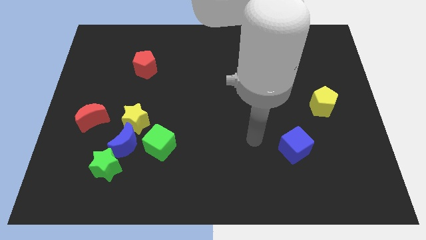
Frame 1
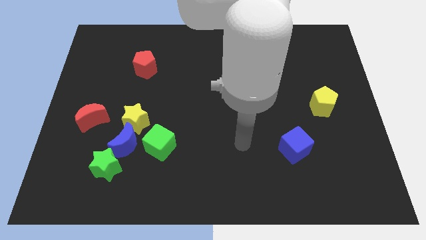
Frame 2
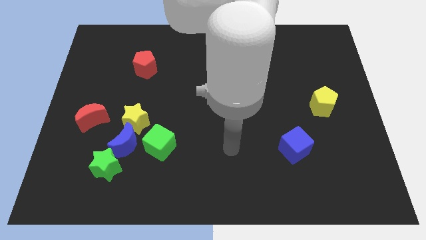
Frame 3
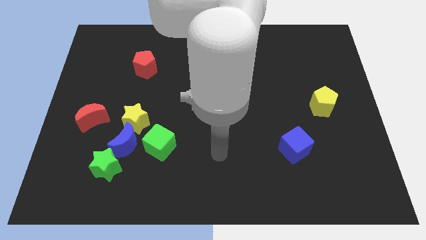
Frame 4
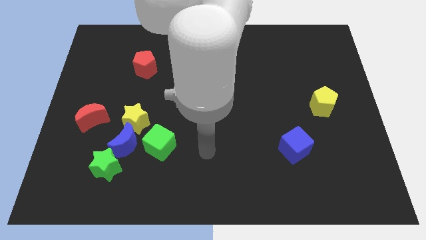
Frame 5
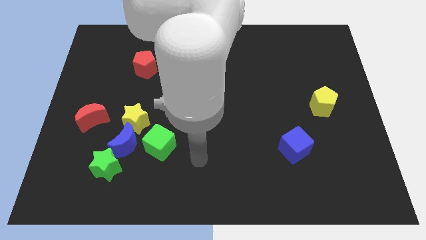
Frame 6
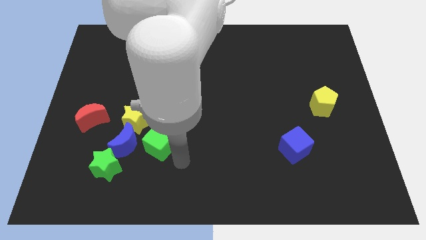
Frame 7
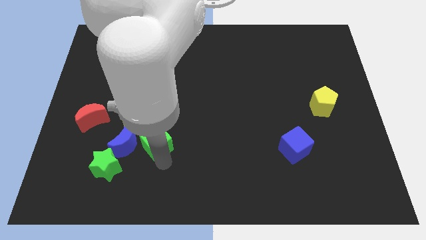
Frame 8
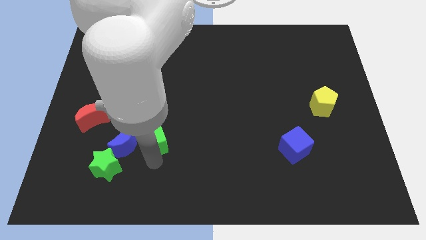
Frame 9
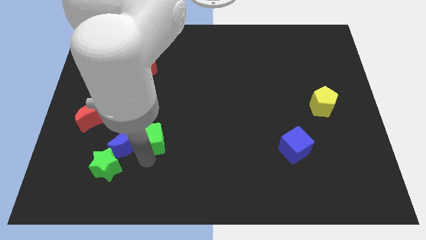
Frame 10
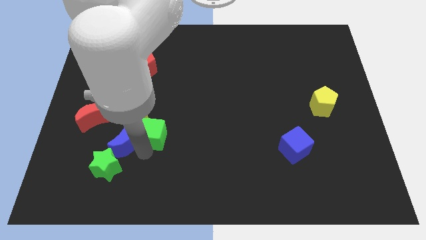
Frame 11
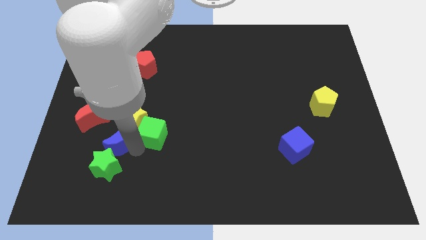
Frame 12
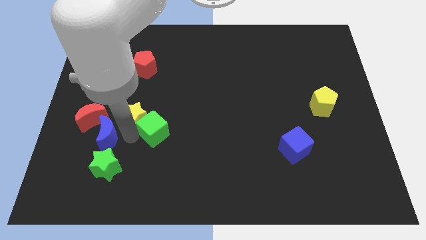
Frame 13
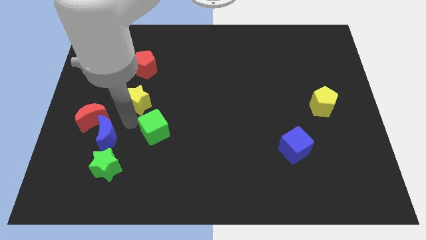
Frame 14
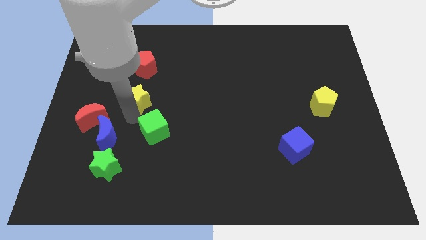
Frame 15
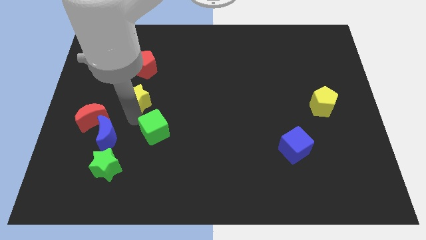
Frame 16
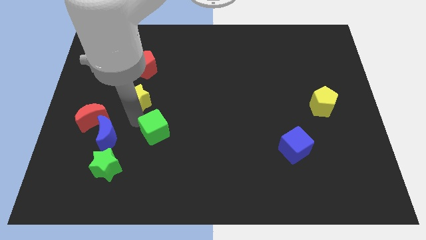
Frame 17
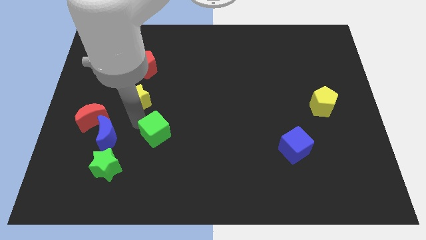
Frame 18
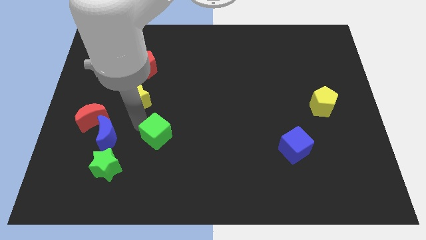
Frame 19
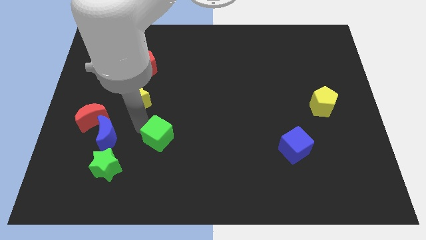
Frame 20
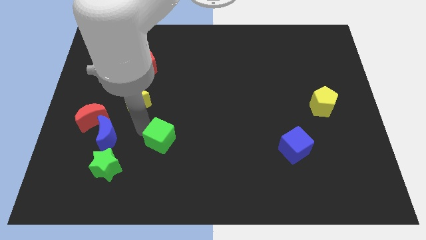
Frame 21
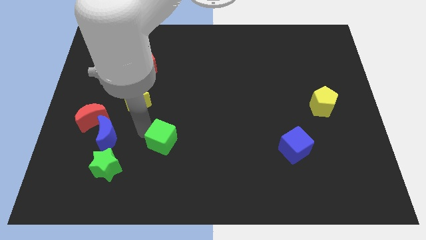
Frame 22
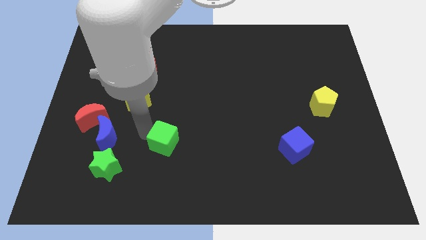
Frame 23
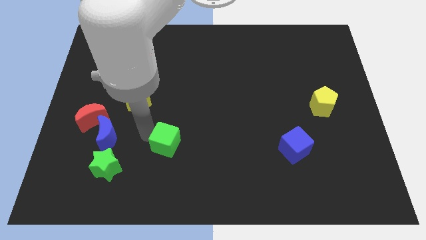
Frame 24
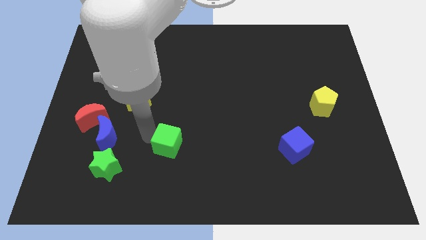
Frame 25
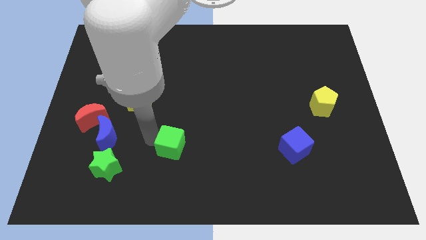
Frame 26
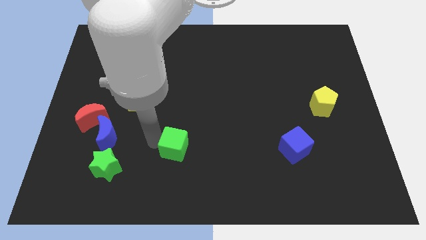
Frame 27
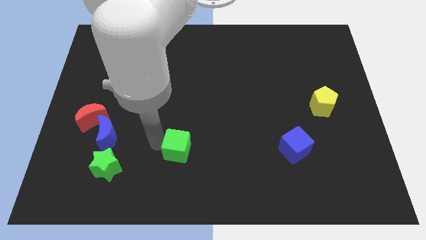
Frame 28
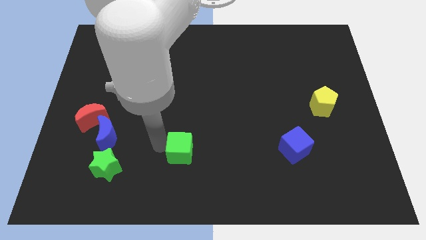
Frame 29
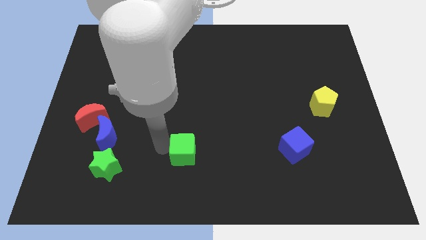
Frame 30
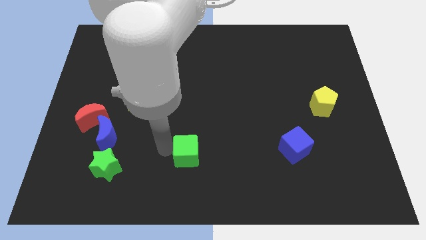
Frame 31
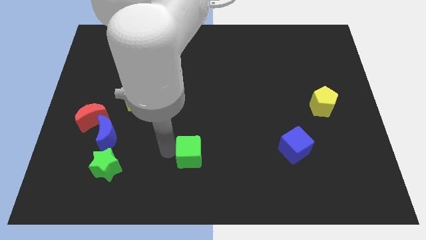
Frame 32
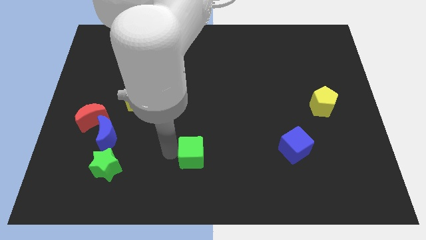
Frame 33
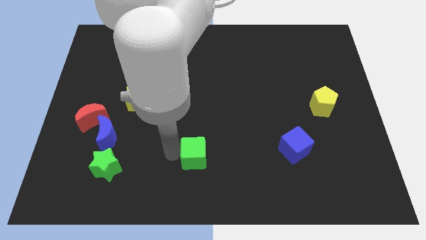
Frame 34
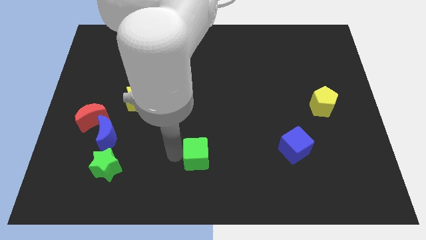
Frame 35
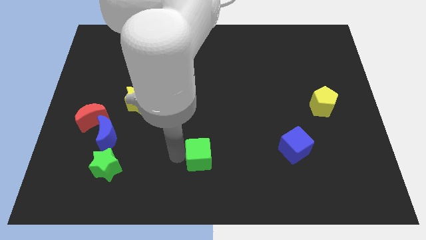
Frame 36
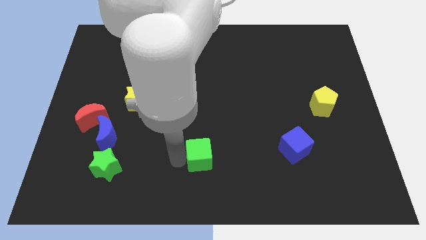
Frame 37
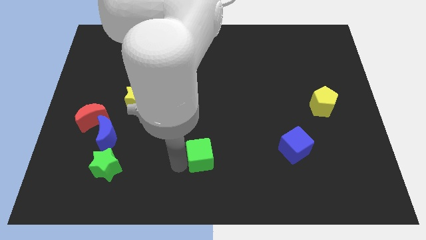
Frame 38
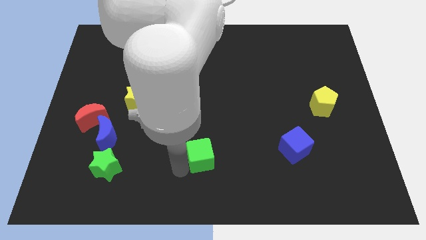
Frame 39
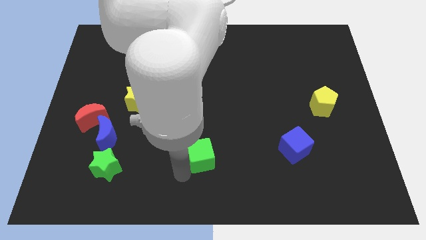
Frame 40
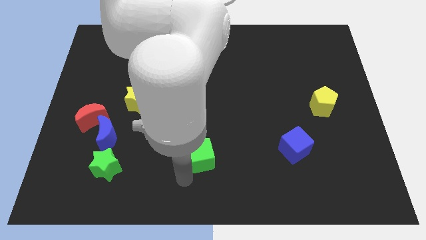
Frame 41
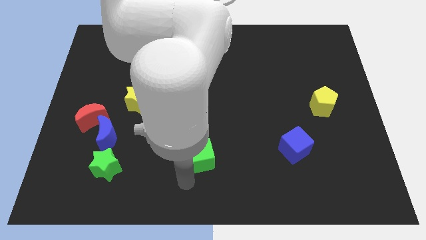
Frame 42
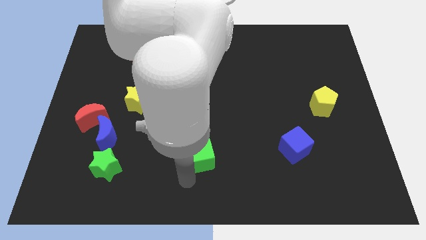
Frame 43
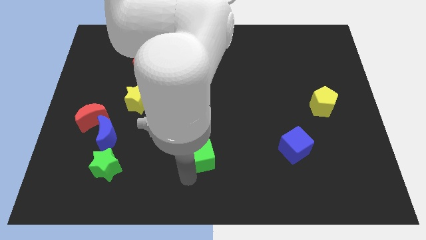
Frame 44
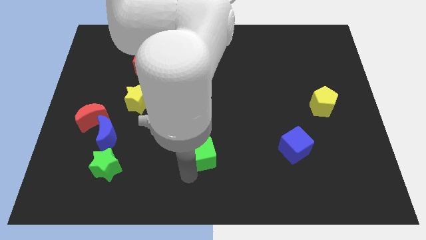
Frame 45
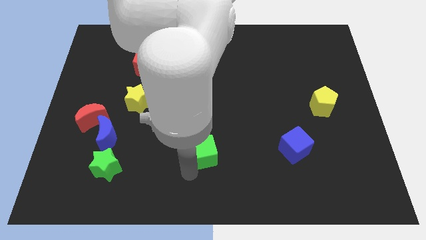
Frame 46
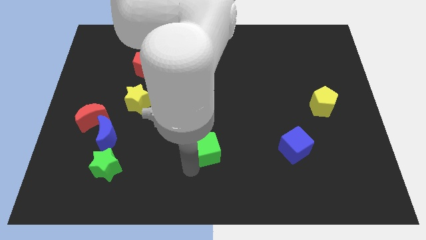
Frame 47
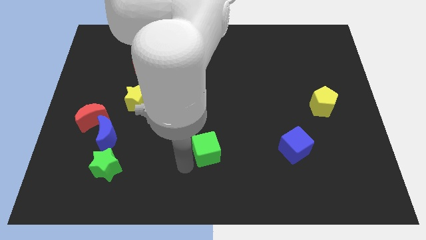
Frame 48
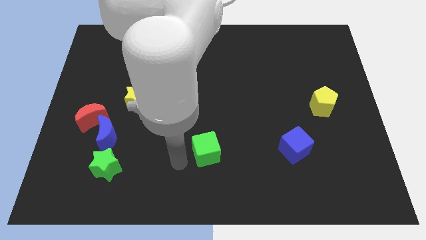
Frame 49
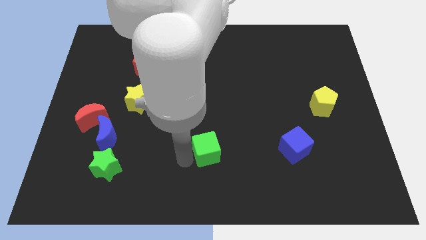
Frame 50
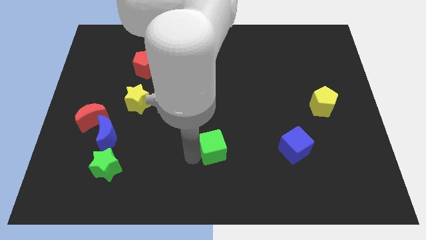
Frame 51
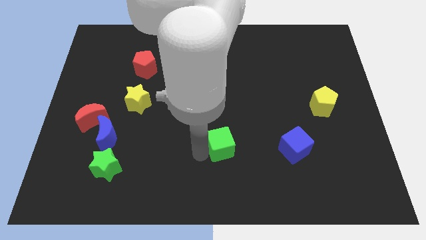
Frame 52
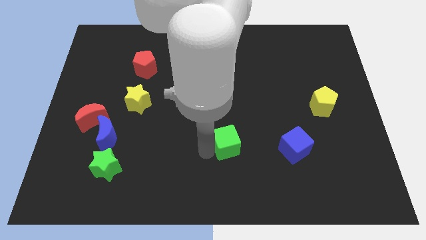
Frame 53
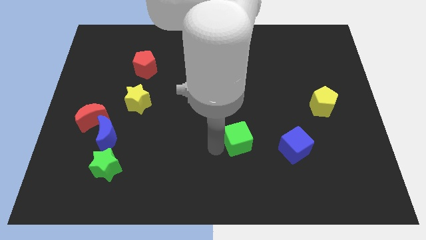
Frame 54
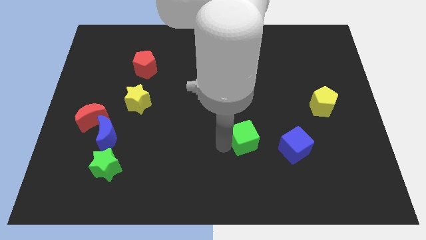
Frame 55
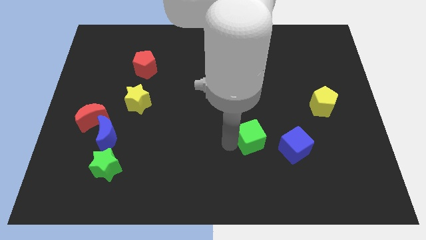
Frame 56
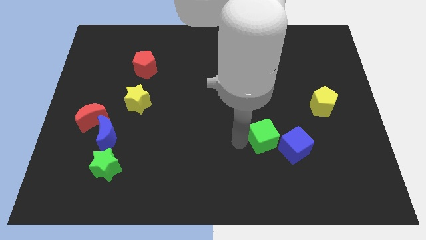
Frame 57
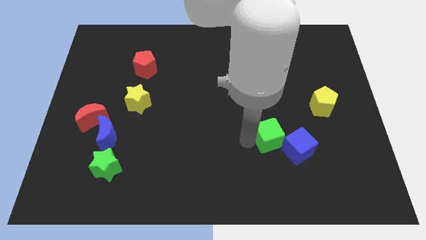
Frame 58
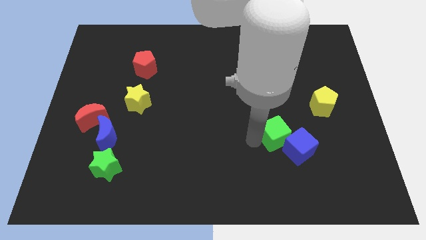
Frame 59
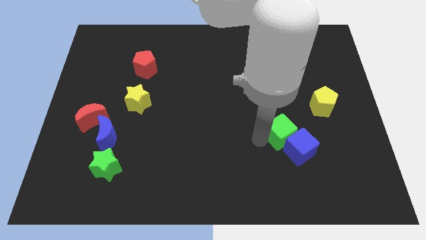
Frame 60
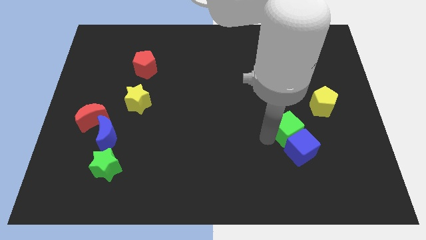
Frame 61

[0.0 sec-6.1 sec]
move the green cube to the bottom left side of the yellow pentagon

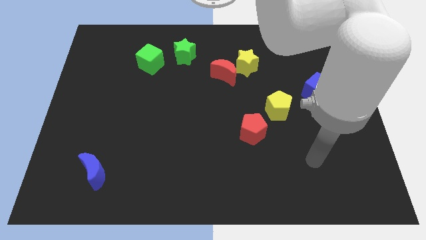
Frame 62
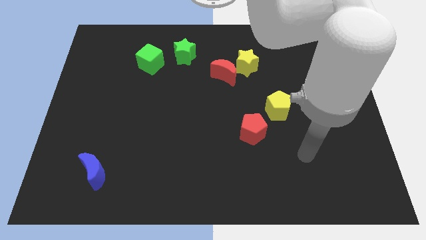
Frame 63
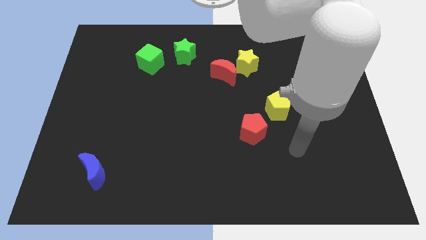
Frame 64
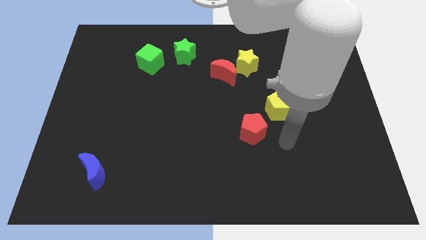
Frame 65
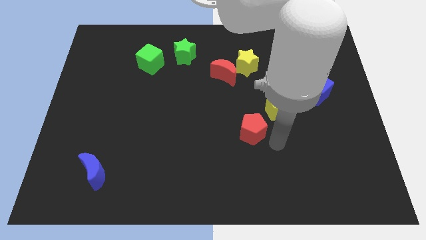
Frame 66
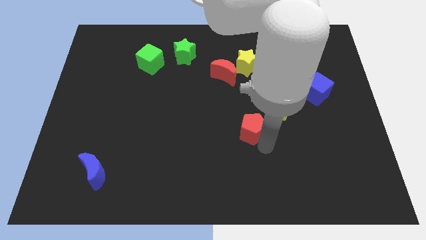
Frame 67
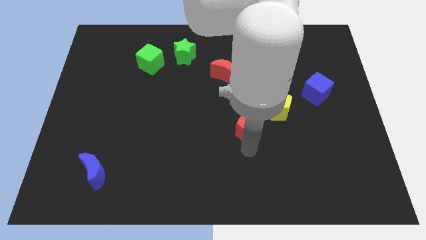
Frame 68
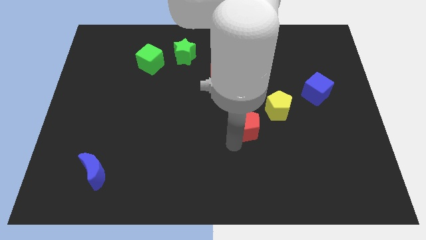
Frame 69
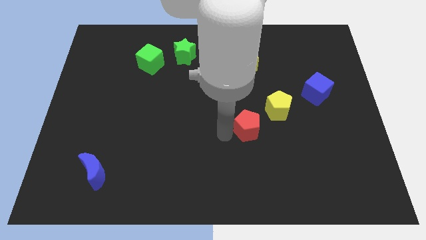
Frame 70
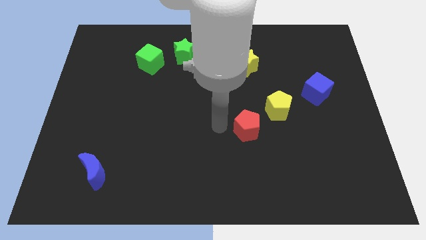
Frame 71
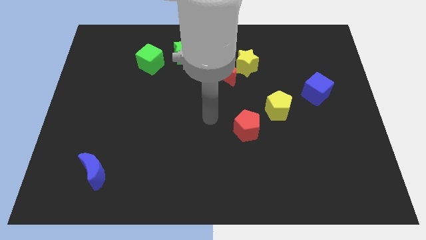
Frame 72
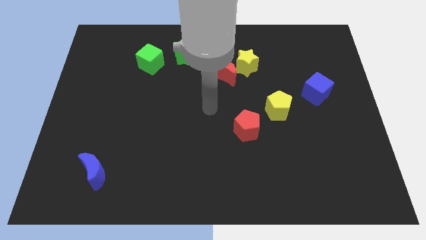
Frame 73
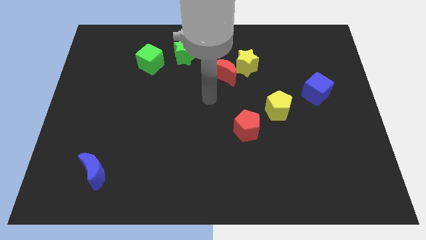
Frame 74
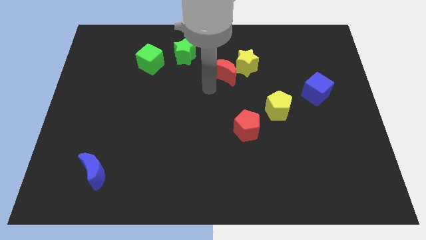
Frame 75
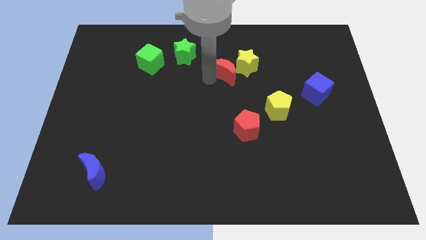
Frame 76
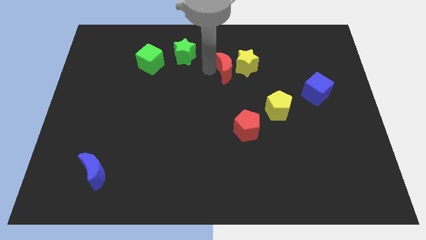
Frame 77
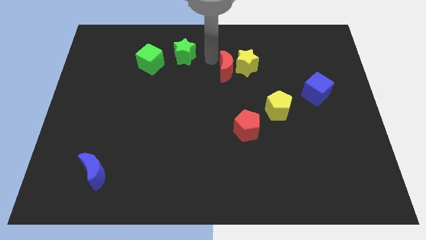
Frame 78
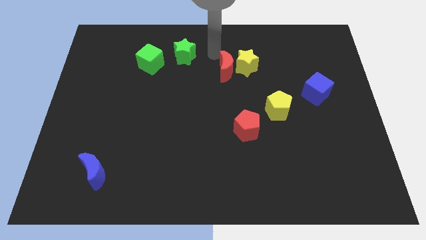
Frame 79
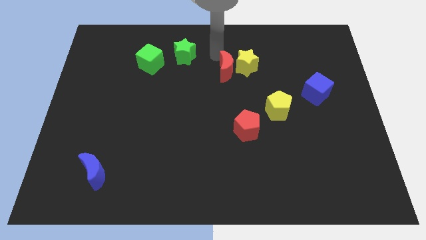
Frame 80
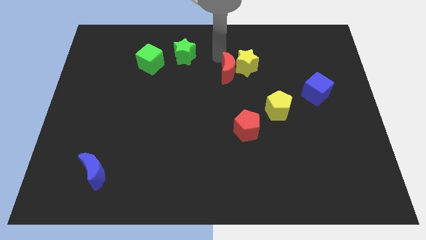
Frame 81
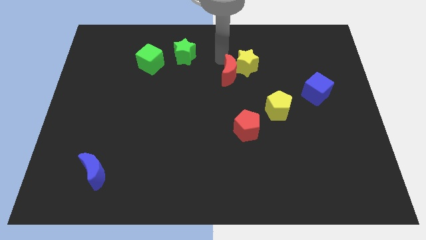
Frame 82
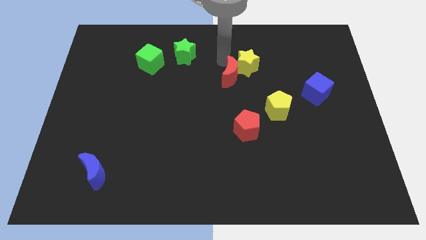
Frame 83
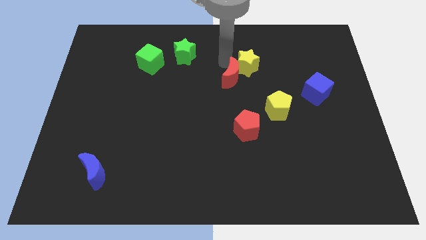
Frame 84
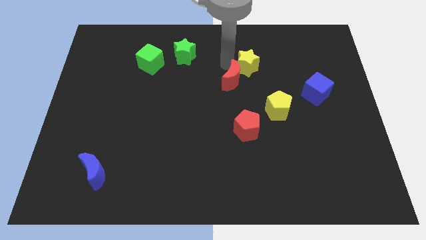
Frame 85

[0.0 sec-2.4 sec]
slide the red moon to the top of the red pentagon
